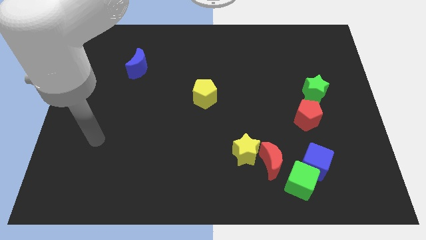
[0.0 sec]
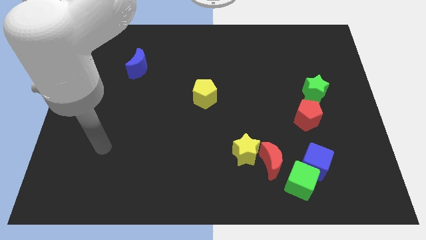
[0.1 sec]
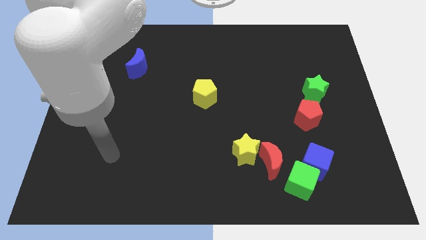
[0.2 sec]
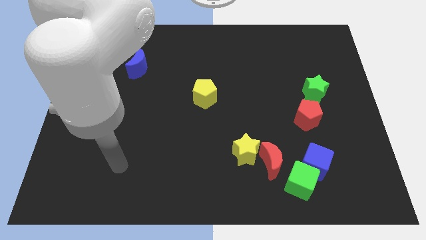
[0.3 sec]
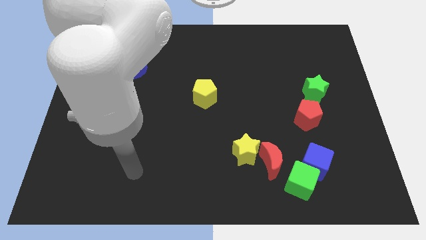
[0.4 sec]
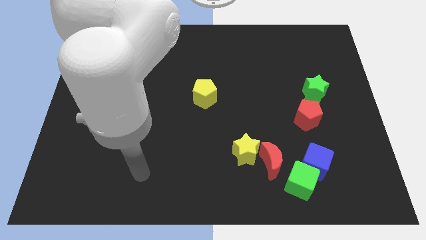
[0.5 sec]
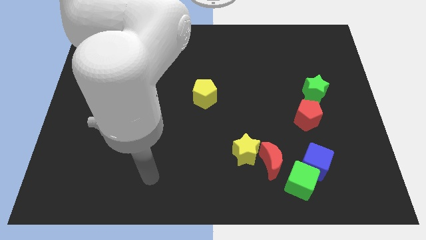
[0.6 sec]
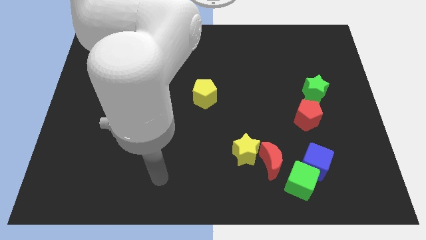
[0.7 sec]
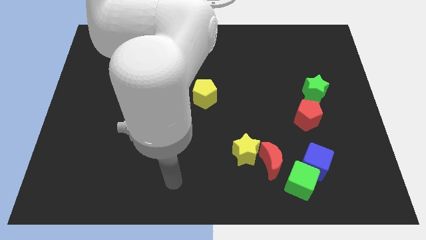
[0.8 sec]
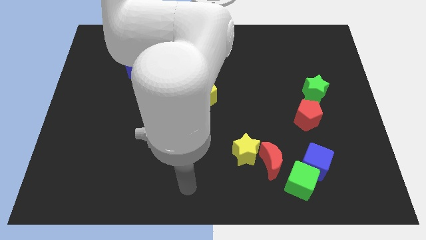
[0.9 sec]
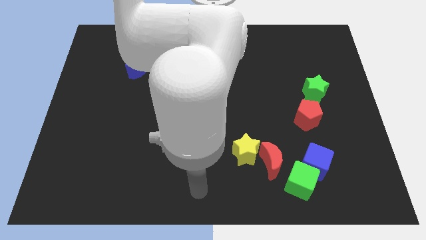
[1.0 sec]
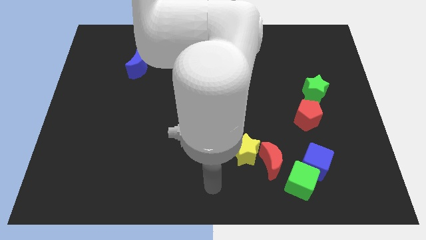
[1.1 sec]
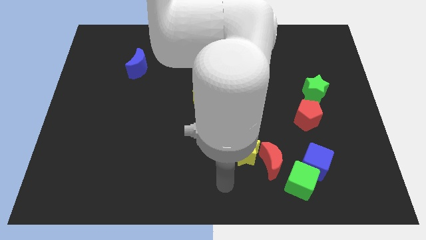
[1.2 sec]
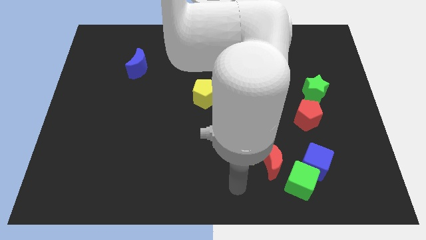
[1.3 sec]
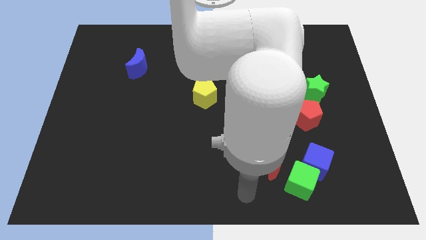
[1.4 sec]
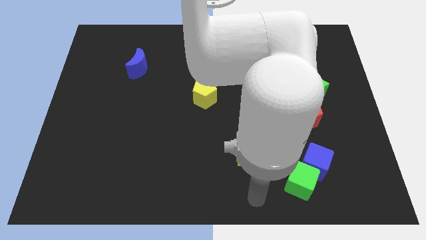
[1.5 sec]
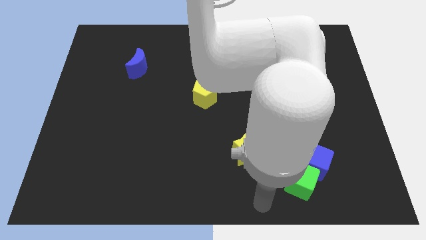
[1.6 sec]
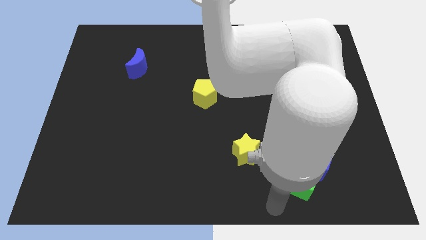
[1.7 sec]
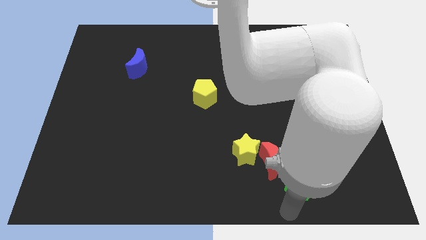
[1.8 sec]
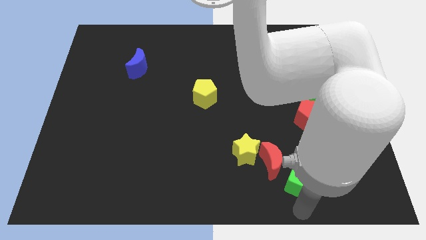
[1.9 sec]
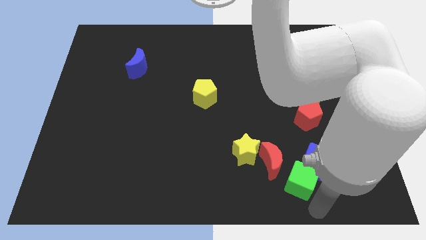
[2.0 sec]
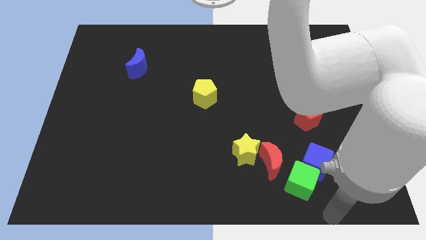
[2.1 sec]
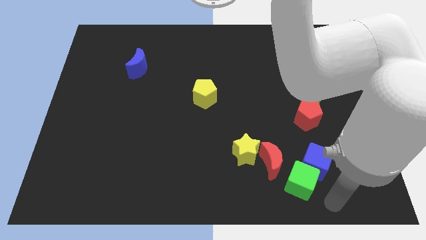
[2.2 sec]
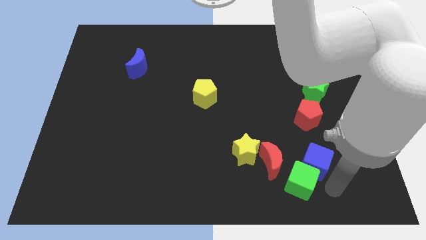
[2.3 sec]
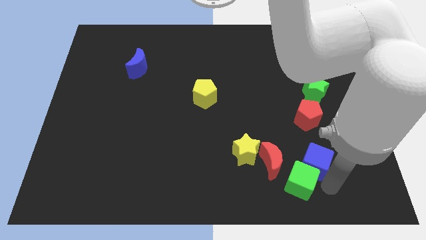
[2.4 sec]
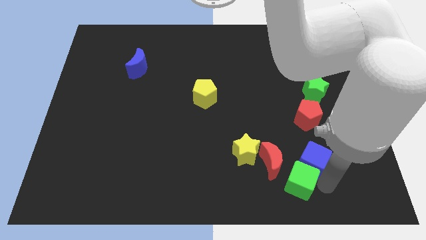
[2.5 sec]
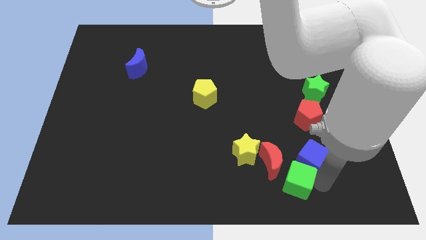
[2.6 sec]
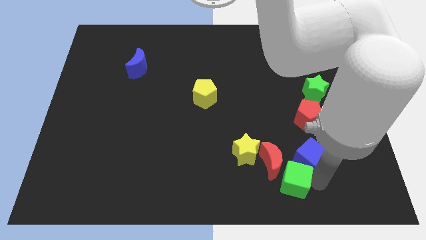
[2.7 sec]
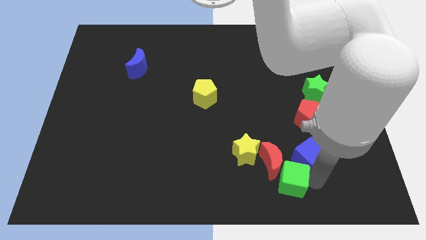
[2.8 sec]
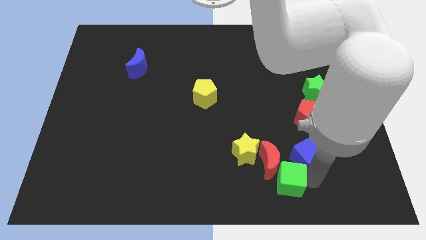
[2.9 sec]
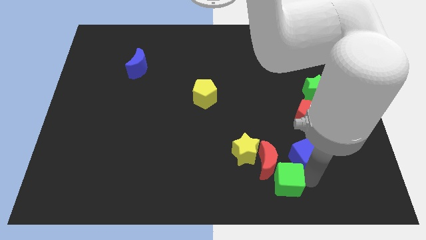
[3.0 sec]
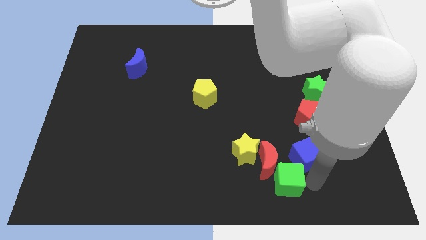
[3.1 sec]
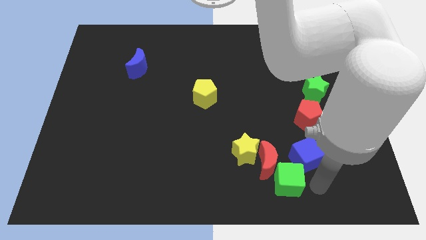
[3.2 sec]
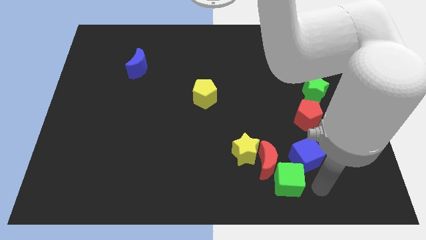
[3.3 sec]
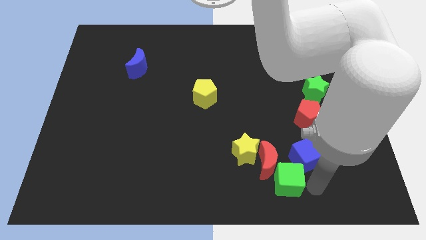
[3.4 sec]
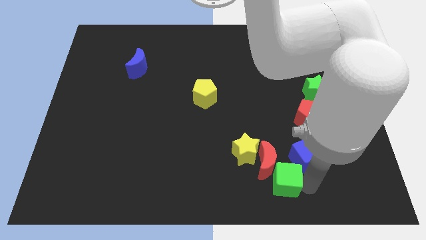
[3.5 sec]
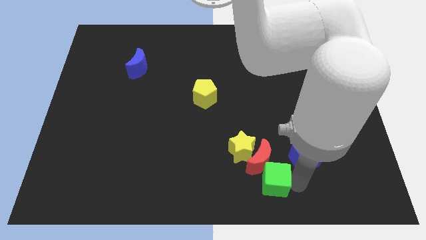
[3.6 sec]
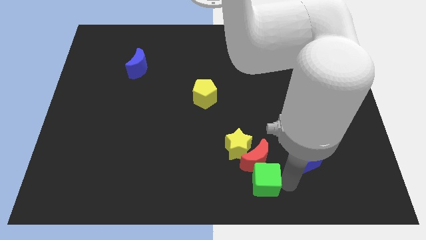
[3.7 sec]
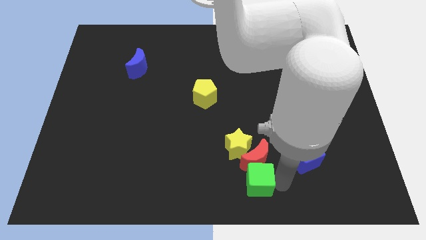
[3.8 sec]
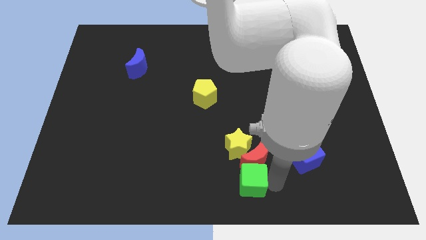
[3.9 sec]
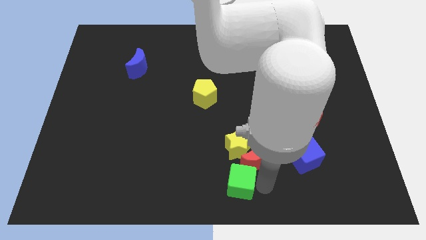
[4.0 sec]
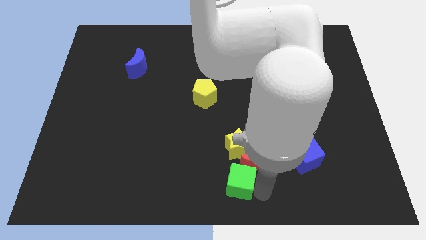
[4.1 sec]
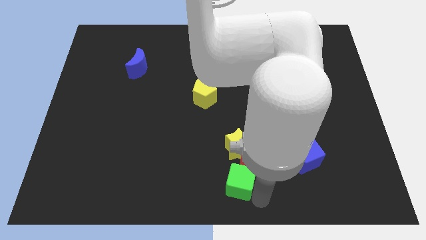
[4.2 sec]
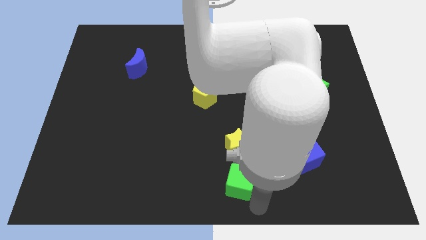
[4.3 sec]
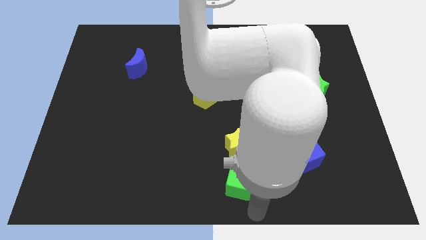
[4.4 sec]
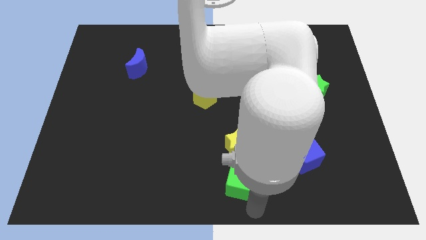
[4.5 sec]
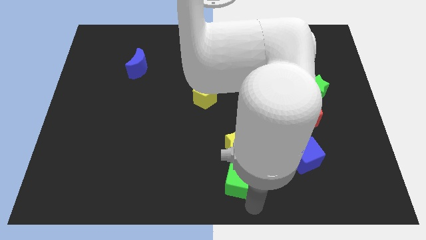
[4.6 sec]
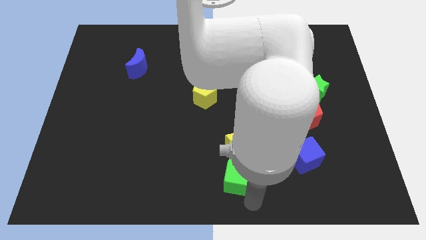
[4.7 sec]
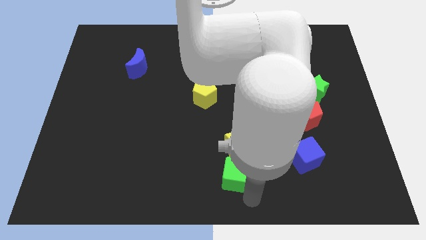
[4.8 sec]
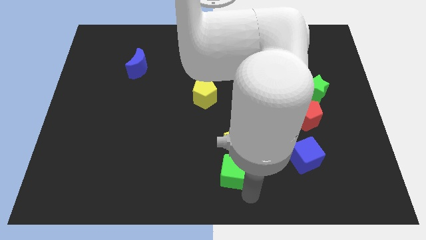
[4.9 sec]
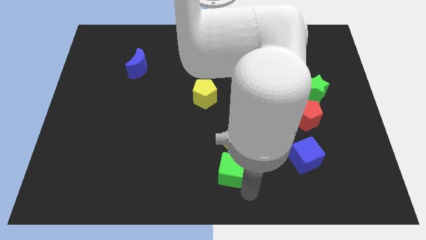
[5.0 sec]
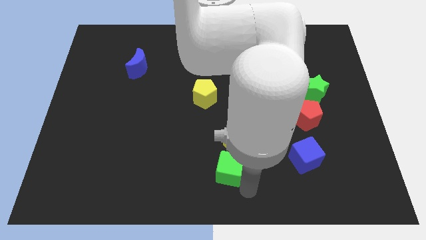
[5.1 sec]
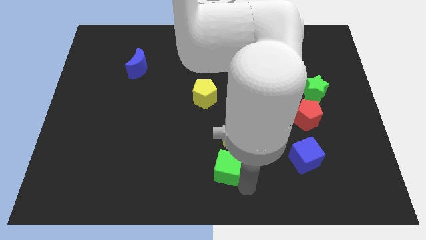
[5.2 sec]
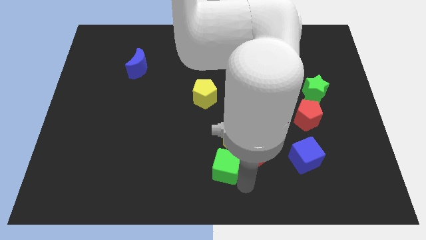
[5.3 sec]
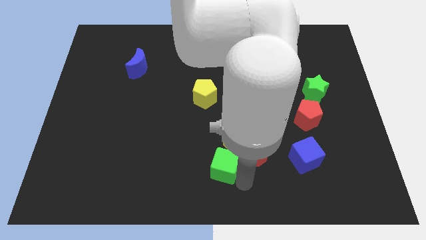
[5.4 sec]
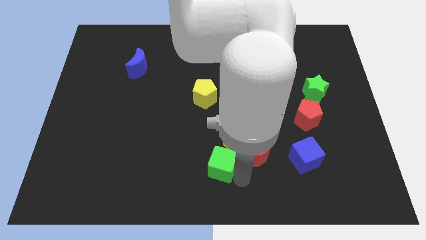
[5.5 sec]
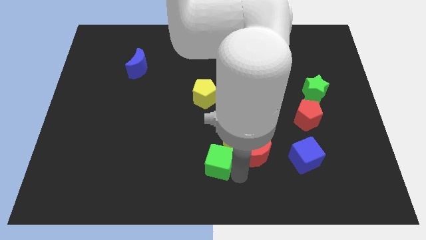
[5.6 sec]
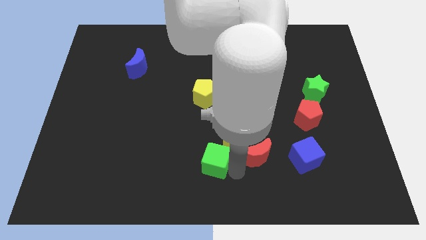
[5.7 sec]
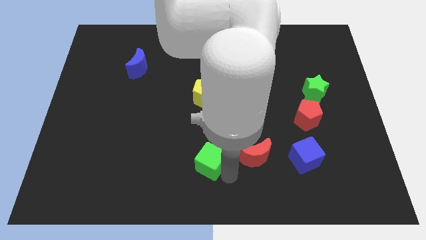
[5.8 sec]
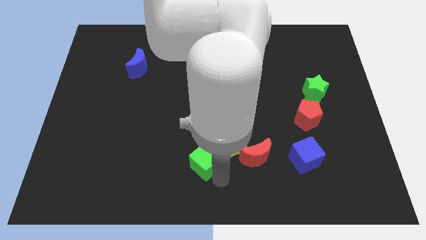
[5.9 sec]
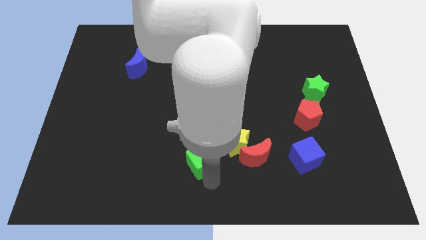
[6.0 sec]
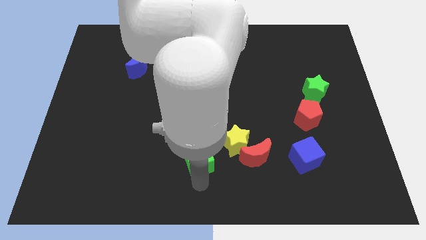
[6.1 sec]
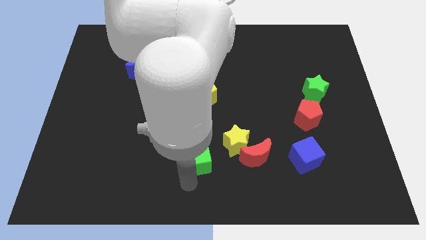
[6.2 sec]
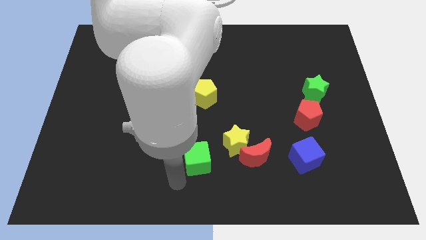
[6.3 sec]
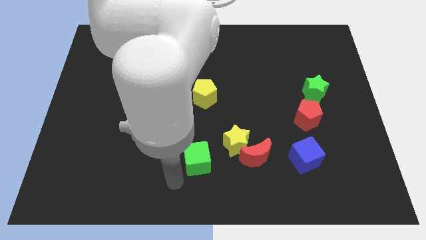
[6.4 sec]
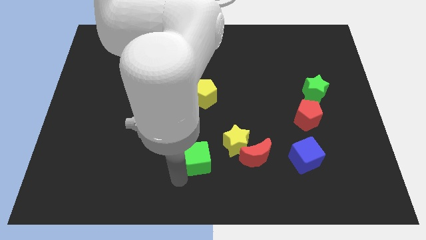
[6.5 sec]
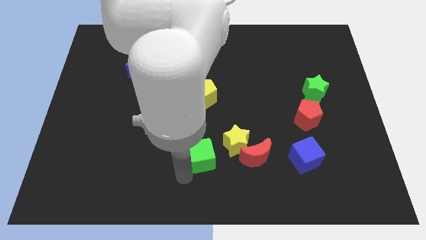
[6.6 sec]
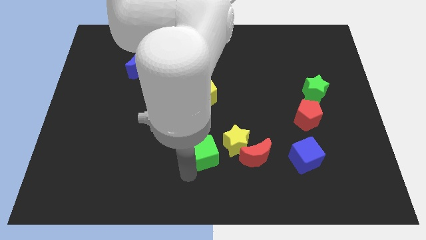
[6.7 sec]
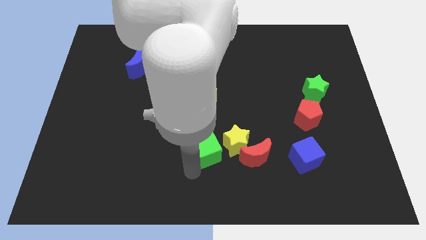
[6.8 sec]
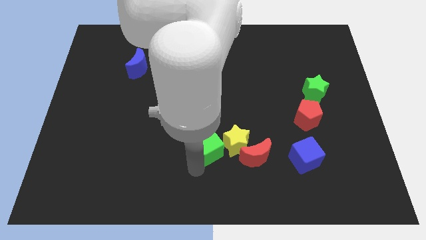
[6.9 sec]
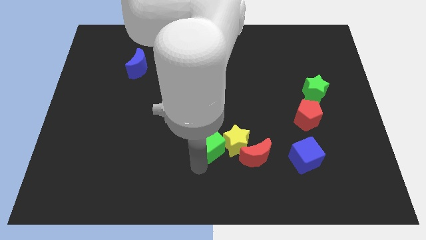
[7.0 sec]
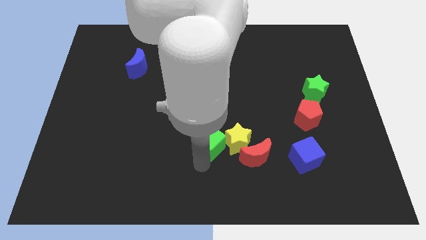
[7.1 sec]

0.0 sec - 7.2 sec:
put the green cube to the top left of the red moon

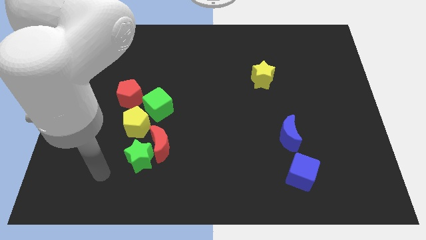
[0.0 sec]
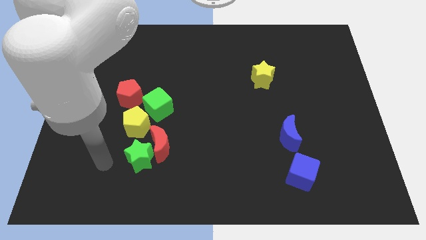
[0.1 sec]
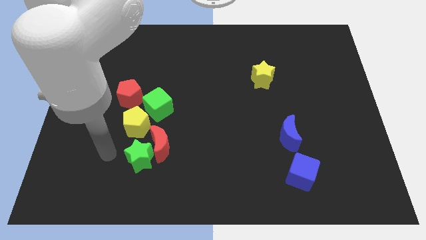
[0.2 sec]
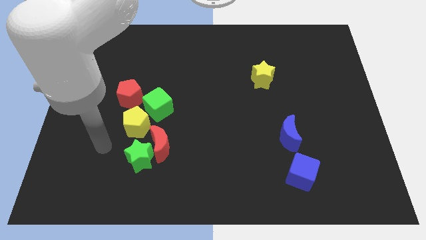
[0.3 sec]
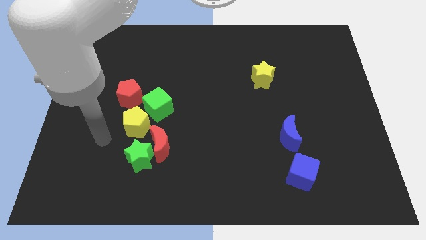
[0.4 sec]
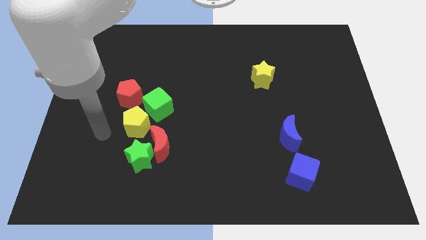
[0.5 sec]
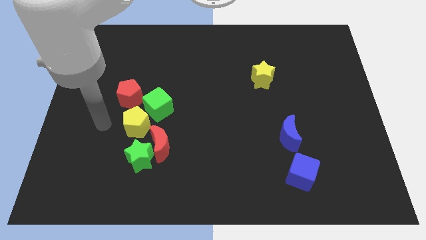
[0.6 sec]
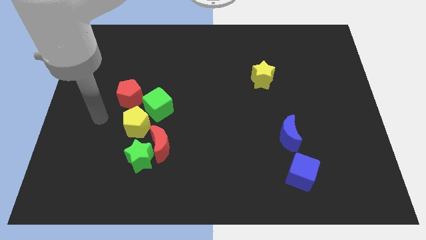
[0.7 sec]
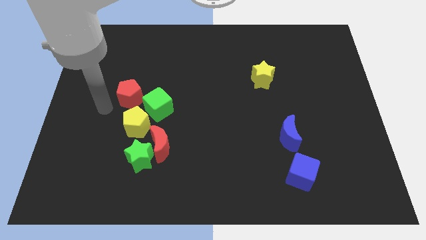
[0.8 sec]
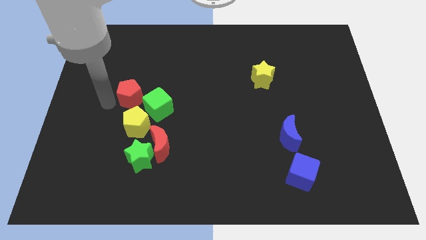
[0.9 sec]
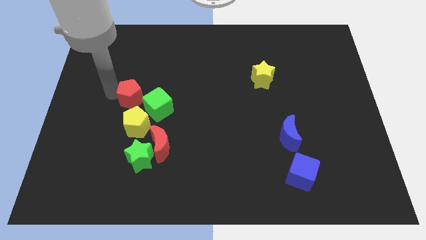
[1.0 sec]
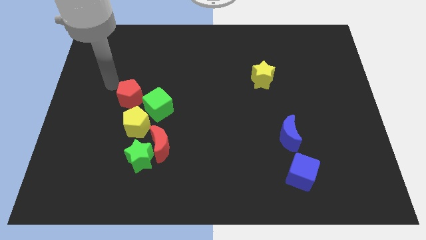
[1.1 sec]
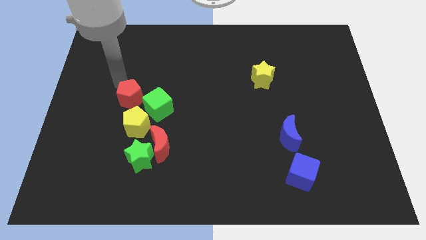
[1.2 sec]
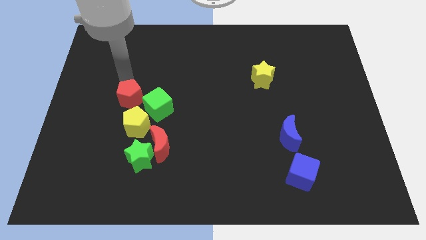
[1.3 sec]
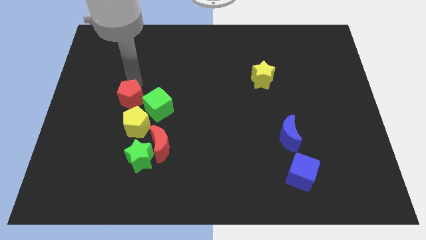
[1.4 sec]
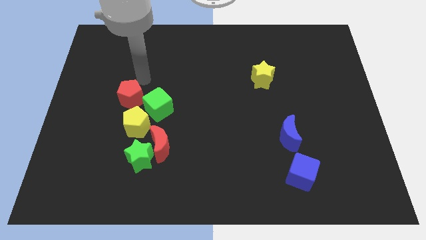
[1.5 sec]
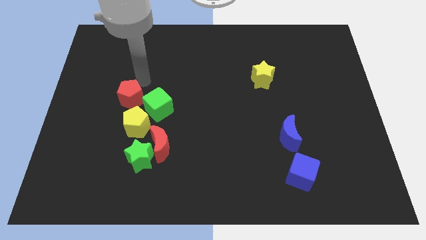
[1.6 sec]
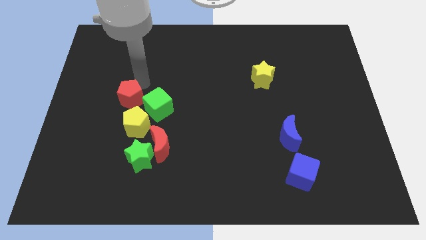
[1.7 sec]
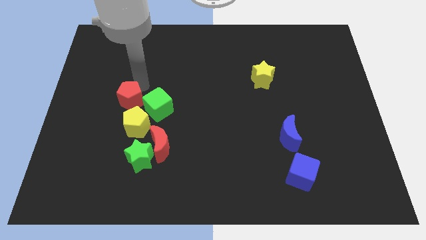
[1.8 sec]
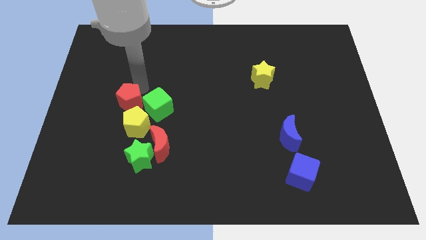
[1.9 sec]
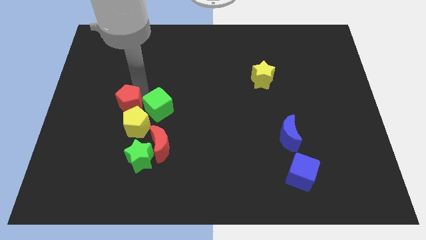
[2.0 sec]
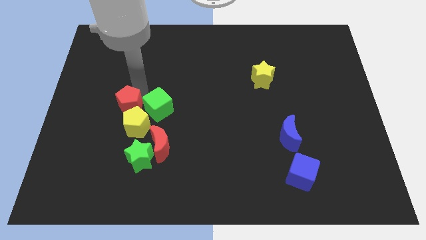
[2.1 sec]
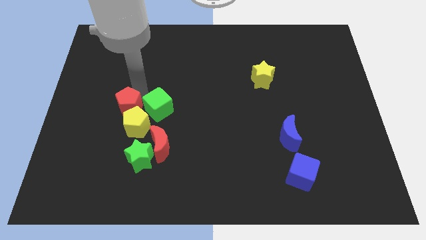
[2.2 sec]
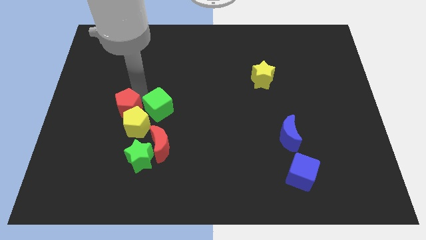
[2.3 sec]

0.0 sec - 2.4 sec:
push the red pentagon to the bottom left of the green cube
